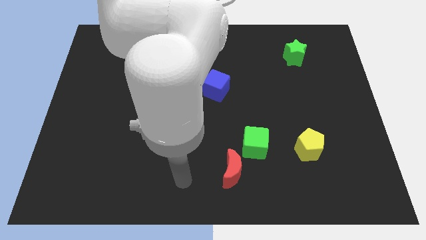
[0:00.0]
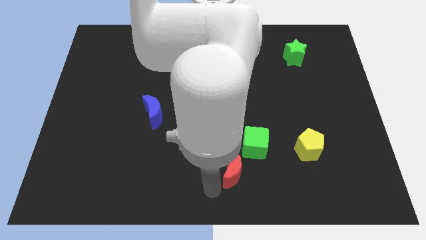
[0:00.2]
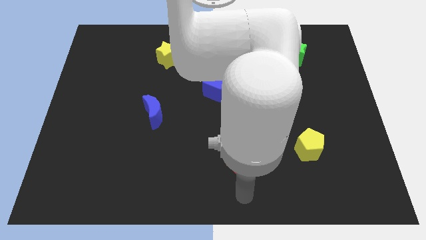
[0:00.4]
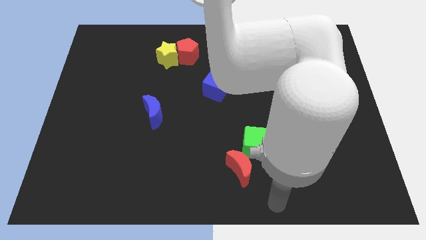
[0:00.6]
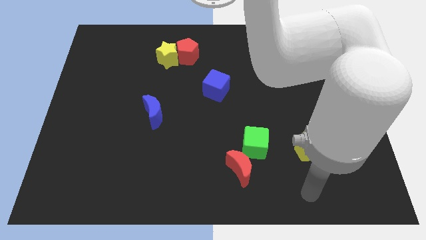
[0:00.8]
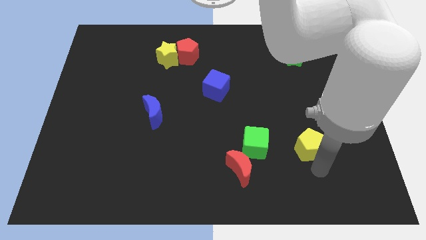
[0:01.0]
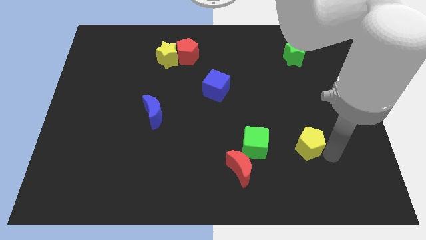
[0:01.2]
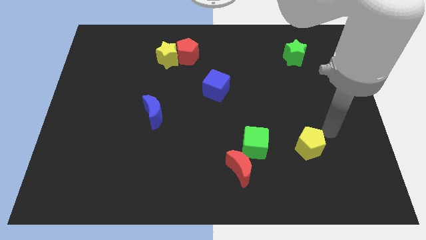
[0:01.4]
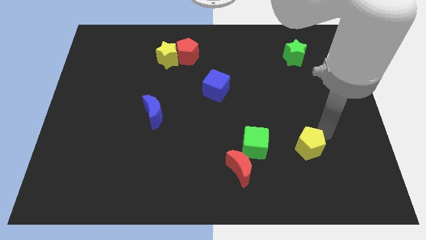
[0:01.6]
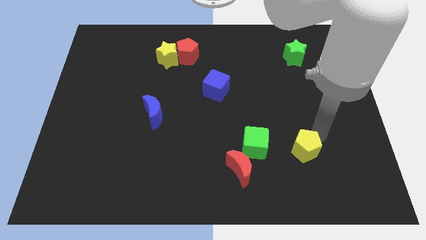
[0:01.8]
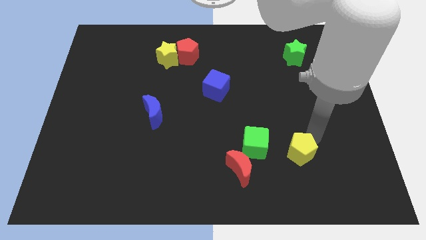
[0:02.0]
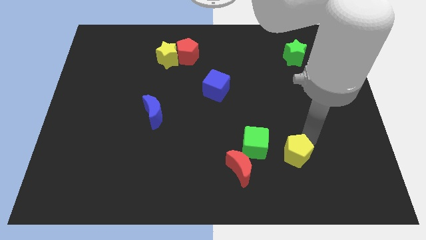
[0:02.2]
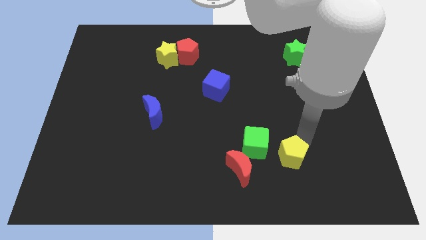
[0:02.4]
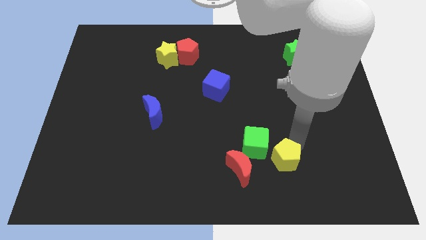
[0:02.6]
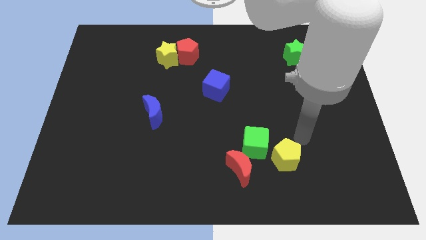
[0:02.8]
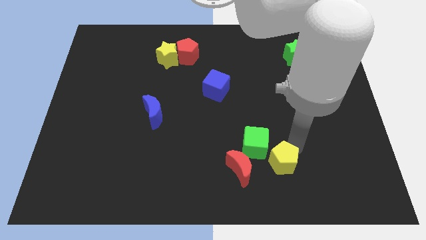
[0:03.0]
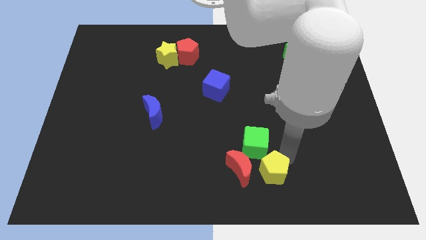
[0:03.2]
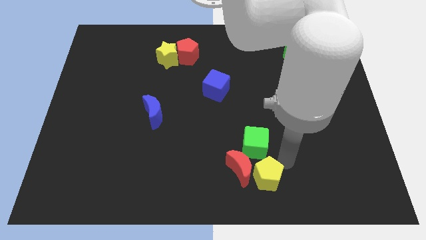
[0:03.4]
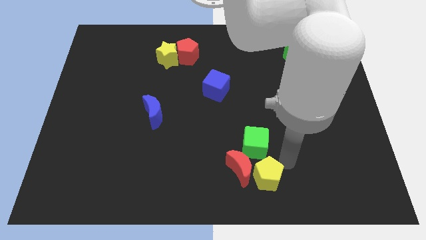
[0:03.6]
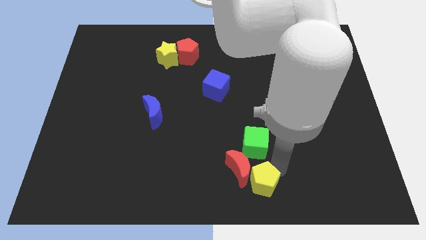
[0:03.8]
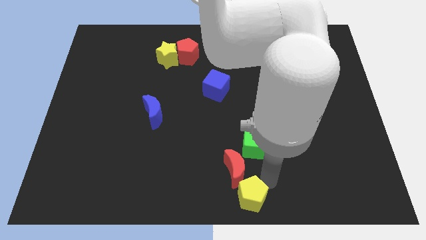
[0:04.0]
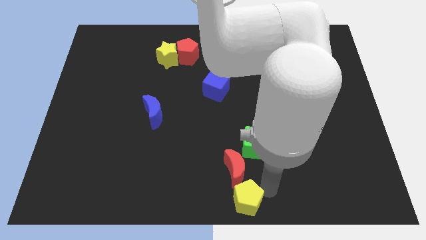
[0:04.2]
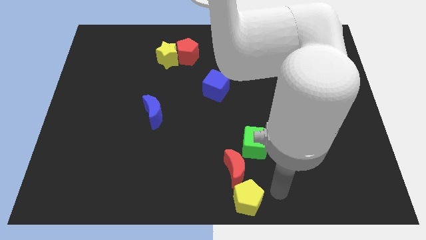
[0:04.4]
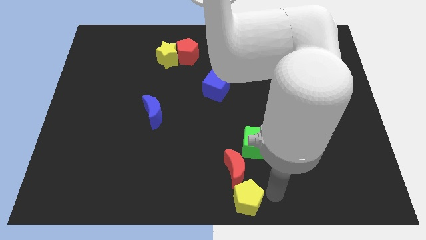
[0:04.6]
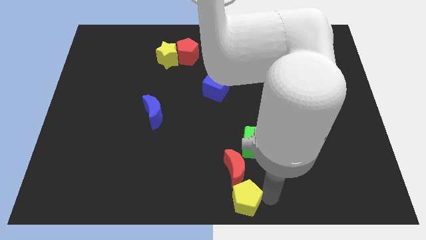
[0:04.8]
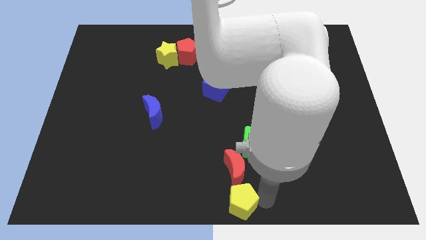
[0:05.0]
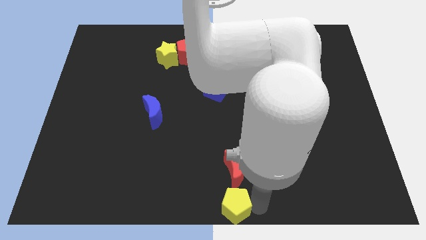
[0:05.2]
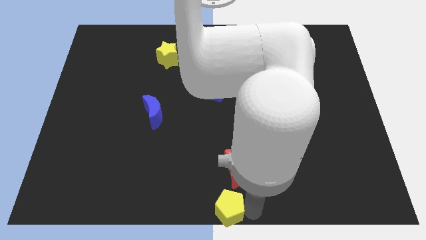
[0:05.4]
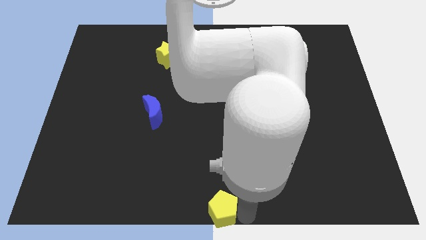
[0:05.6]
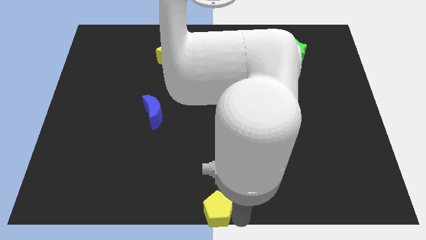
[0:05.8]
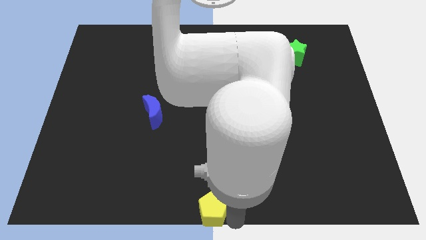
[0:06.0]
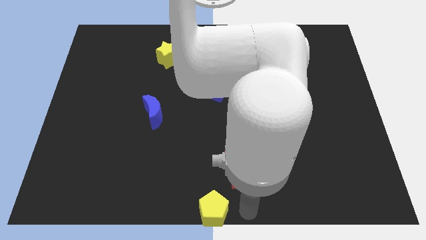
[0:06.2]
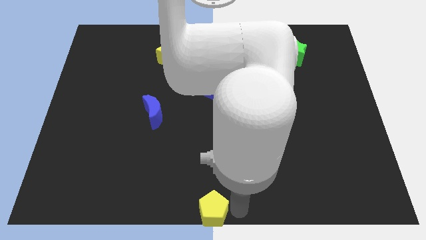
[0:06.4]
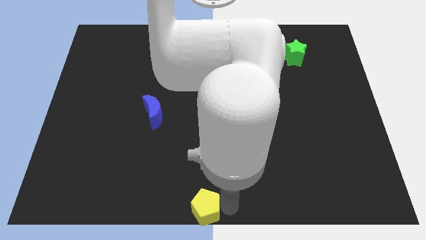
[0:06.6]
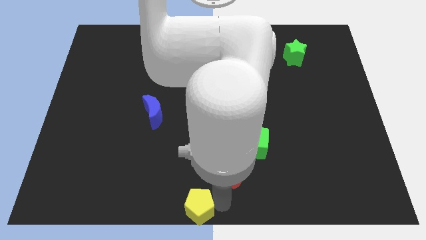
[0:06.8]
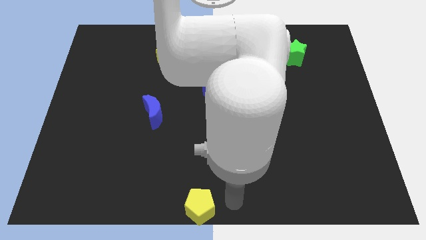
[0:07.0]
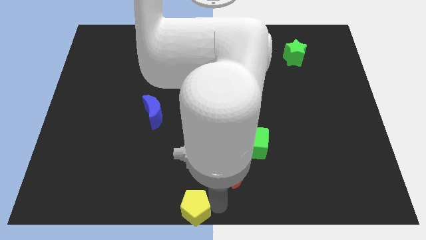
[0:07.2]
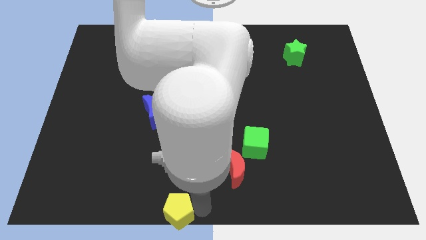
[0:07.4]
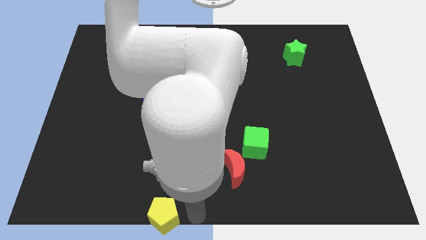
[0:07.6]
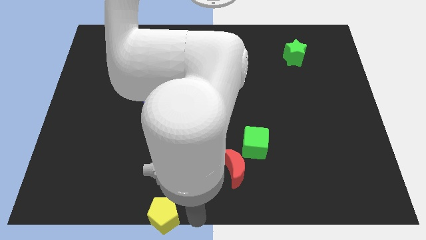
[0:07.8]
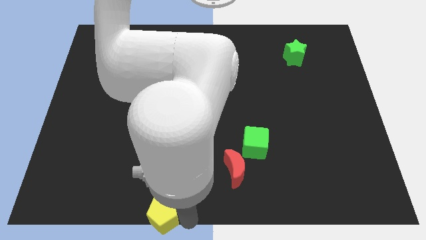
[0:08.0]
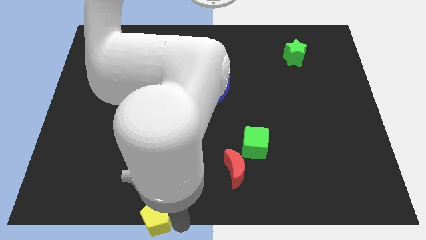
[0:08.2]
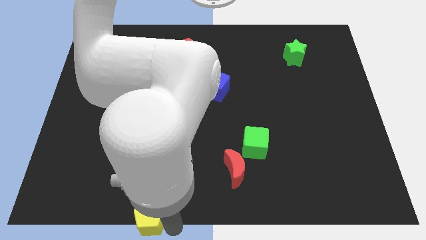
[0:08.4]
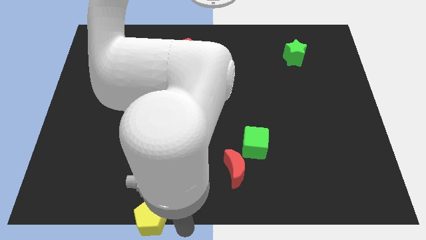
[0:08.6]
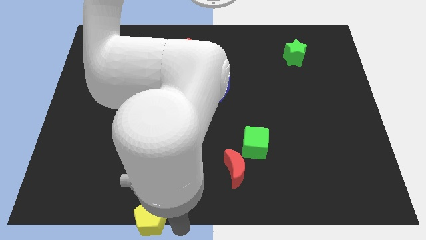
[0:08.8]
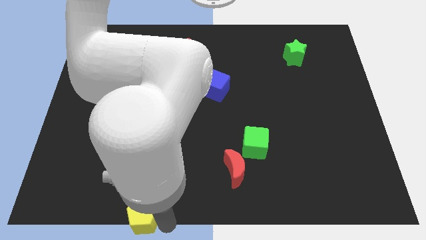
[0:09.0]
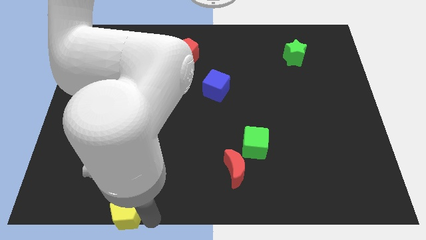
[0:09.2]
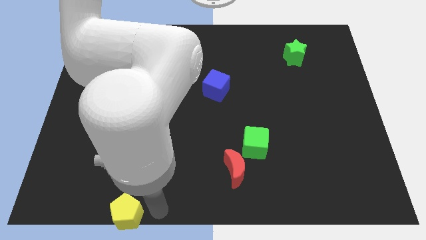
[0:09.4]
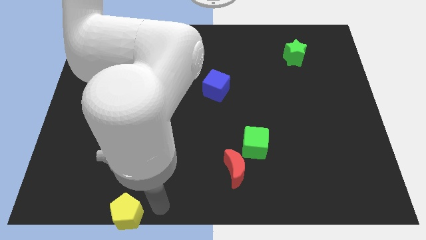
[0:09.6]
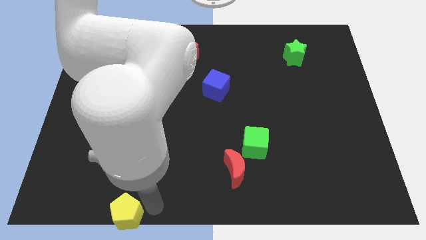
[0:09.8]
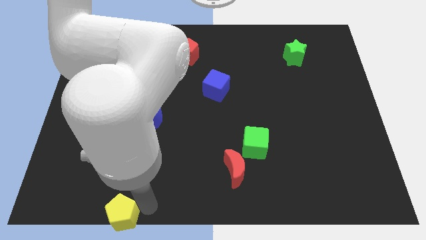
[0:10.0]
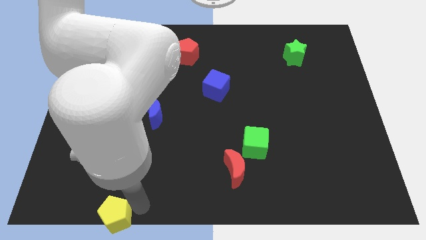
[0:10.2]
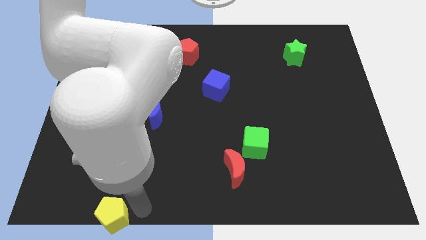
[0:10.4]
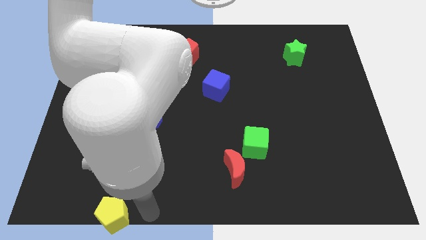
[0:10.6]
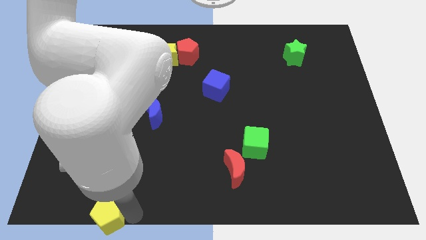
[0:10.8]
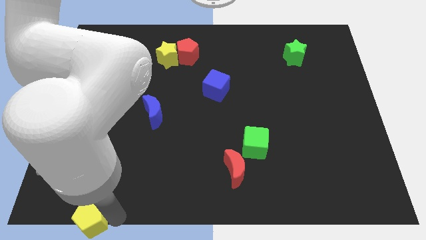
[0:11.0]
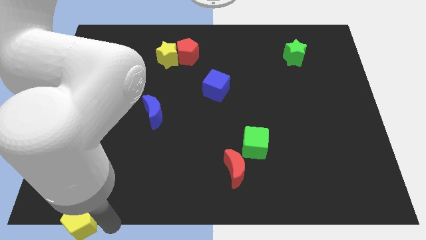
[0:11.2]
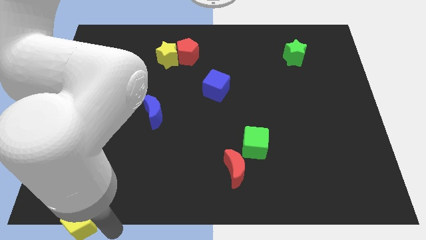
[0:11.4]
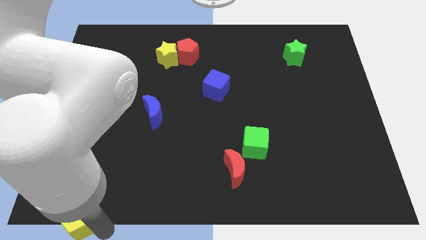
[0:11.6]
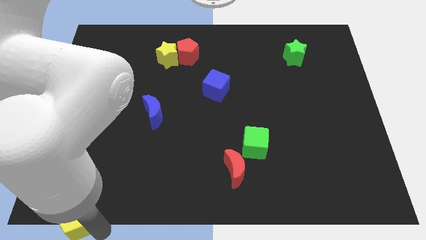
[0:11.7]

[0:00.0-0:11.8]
put the yellow pentagon to the bottom left
